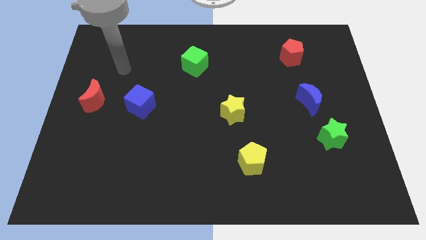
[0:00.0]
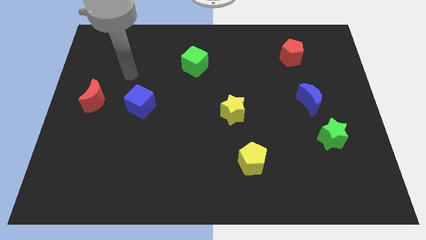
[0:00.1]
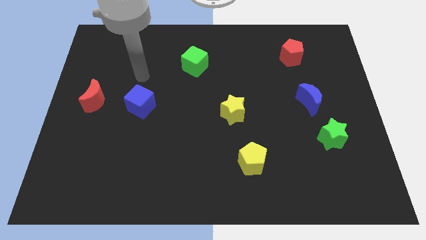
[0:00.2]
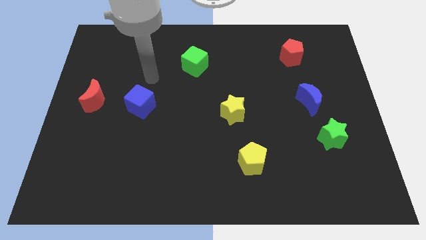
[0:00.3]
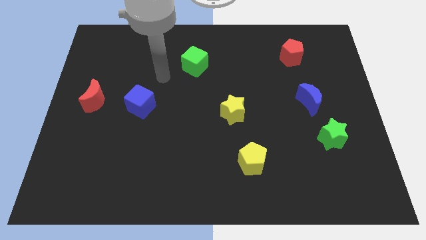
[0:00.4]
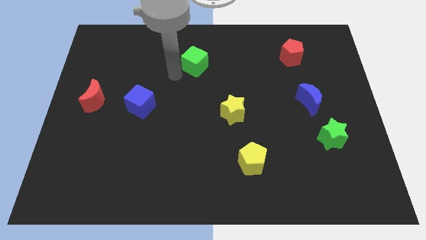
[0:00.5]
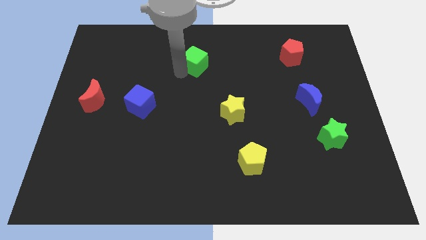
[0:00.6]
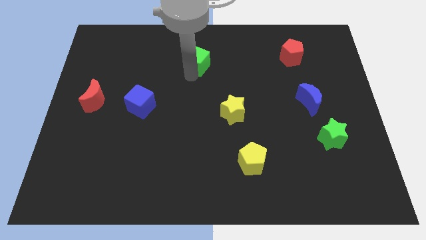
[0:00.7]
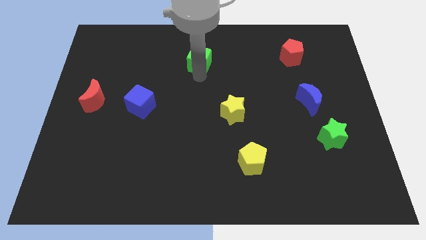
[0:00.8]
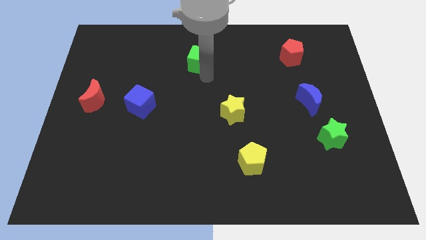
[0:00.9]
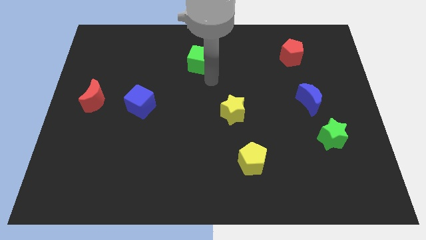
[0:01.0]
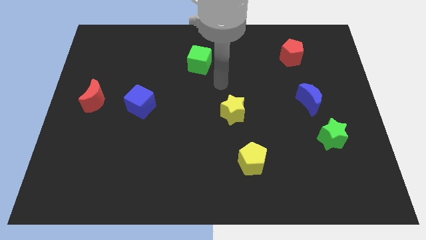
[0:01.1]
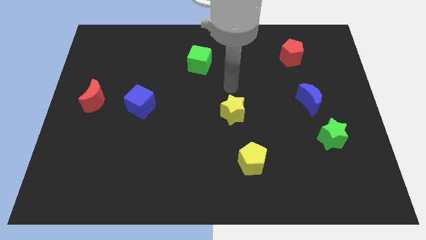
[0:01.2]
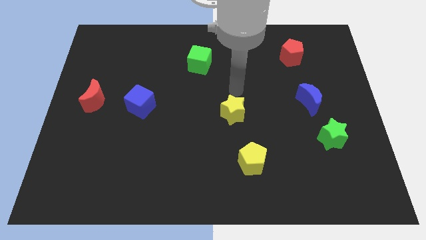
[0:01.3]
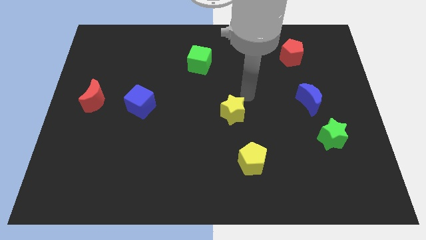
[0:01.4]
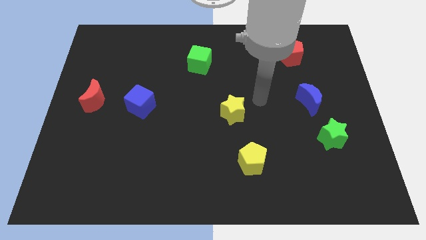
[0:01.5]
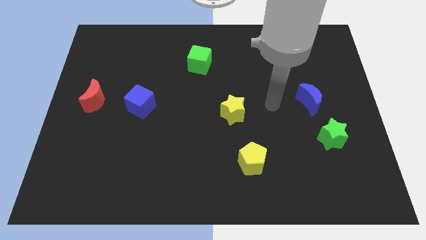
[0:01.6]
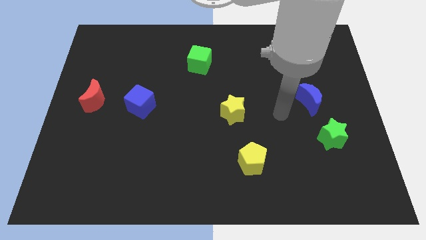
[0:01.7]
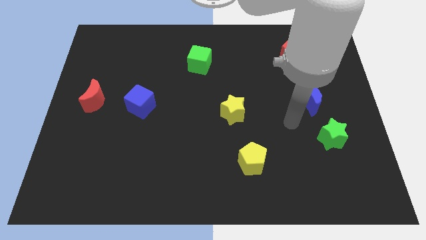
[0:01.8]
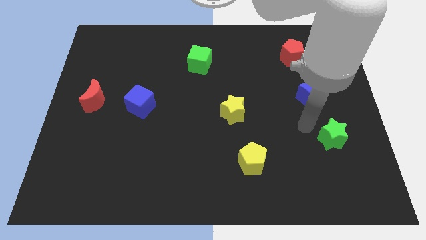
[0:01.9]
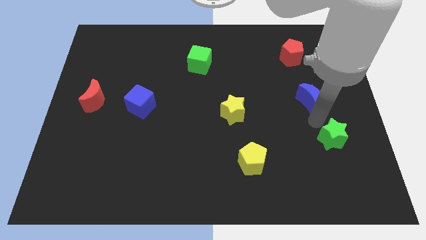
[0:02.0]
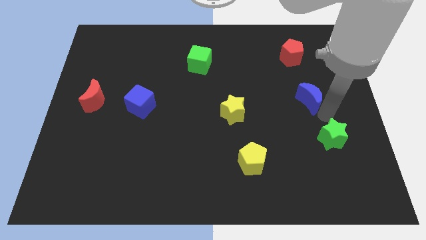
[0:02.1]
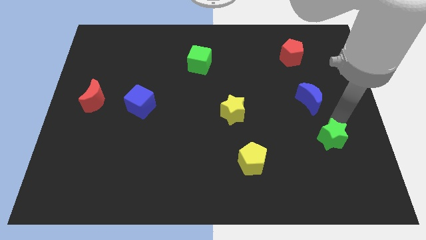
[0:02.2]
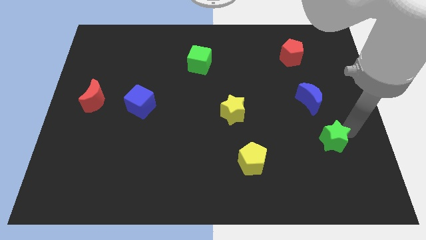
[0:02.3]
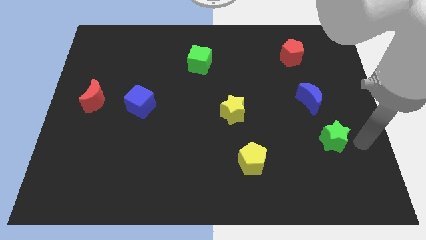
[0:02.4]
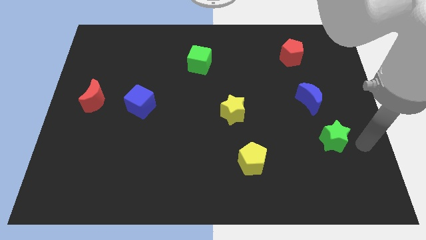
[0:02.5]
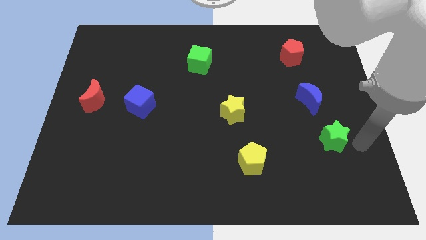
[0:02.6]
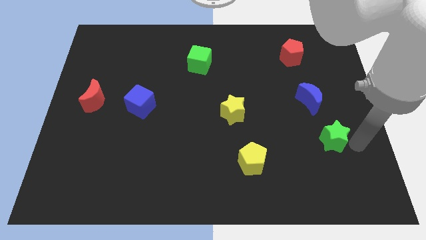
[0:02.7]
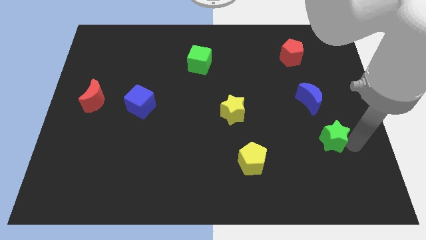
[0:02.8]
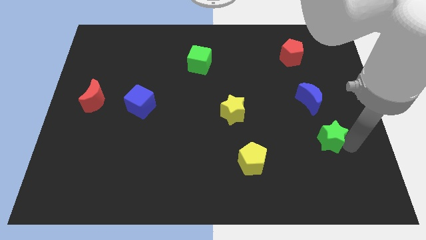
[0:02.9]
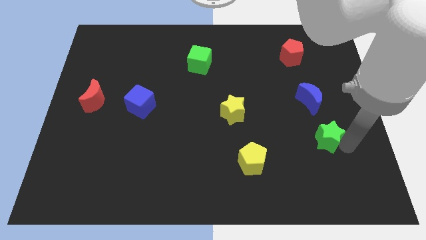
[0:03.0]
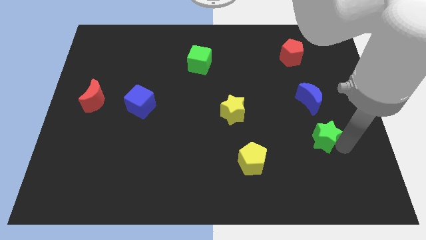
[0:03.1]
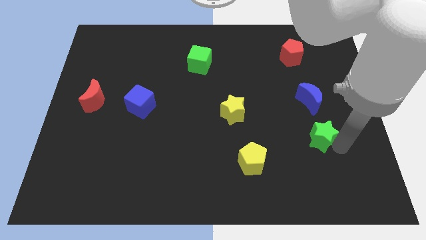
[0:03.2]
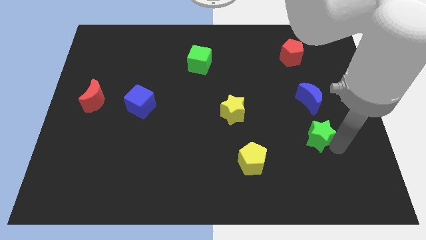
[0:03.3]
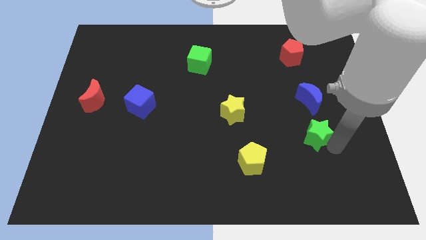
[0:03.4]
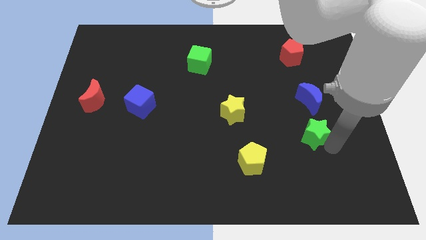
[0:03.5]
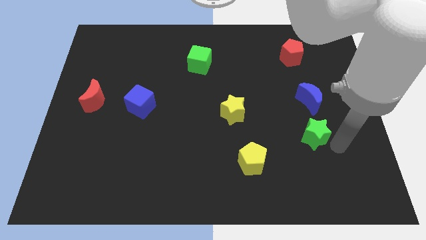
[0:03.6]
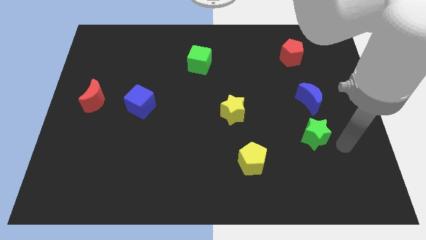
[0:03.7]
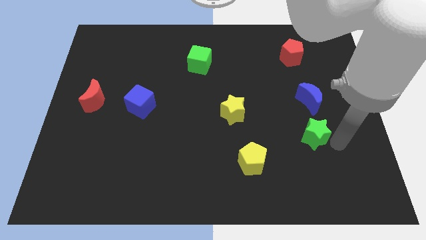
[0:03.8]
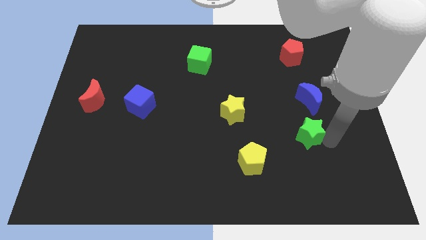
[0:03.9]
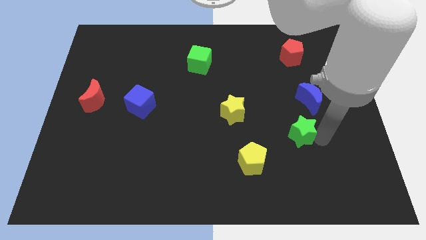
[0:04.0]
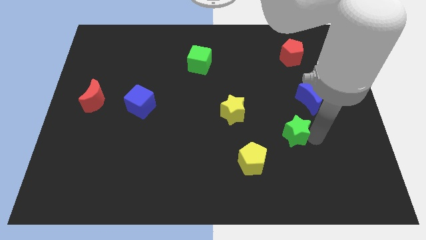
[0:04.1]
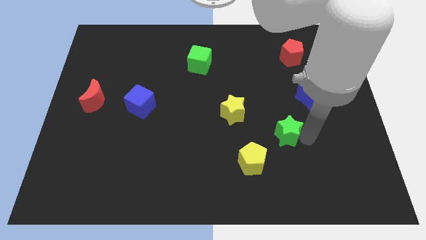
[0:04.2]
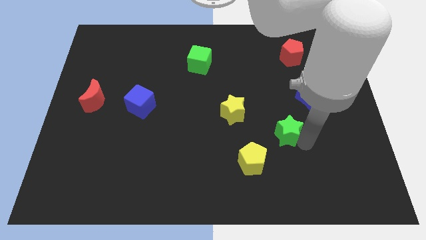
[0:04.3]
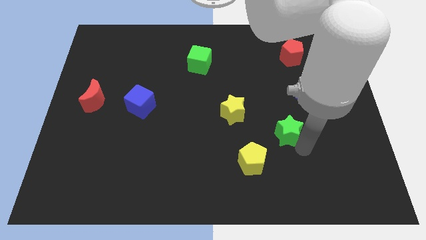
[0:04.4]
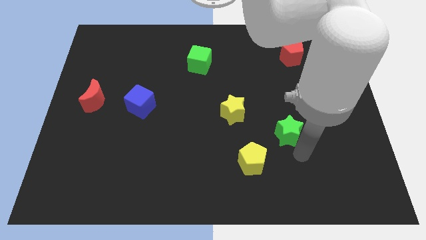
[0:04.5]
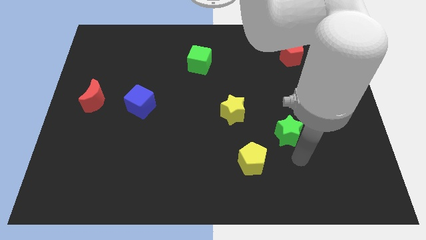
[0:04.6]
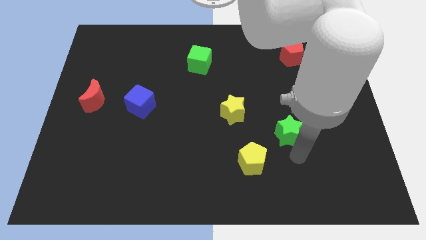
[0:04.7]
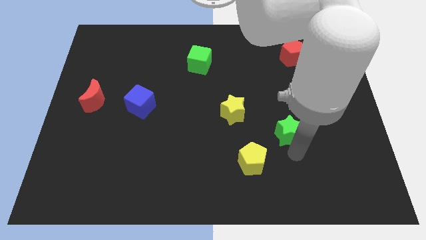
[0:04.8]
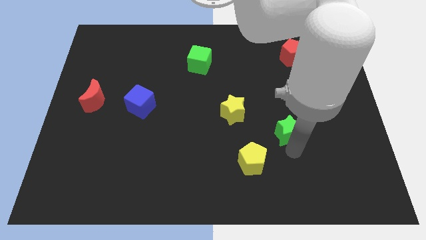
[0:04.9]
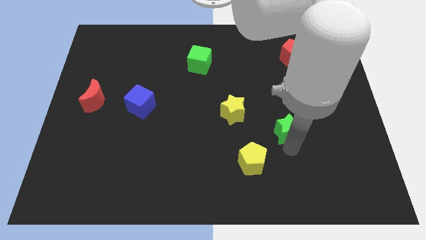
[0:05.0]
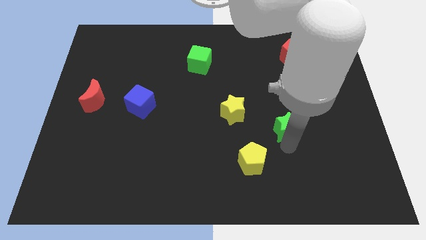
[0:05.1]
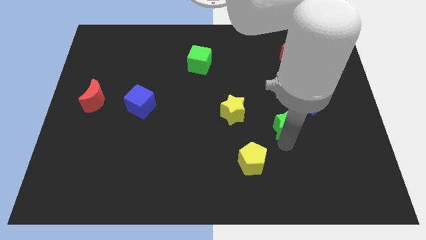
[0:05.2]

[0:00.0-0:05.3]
push the green star to the right of the yellow star
